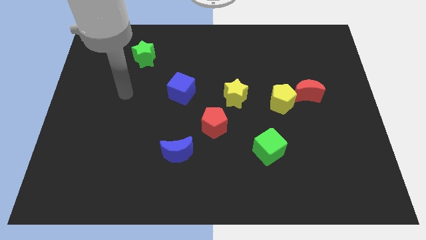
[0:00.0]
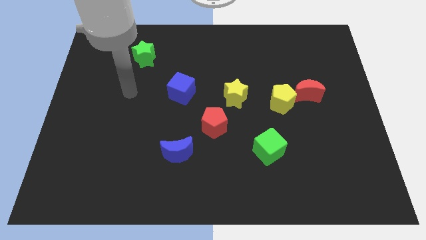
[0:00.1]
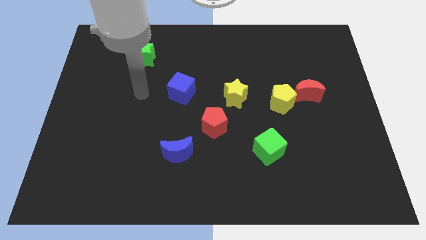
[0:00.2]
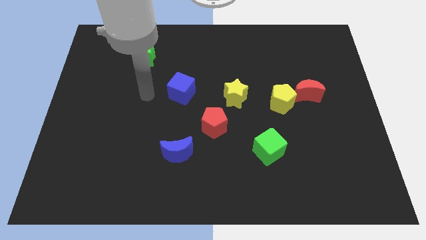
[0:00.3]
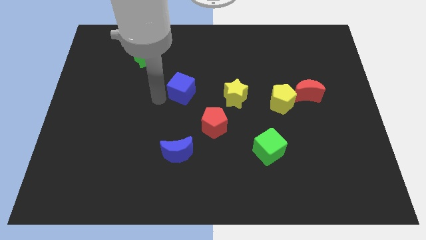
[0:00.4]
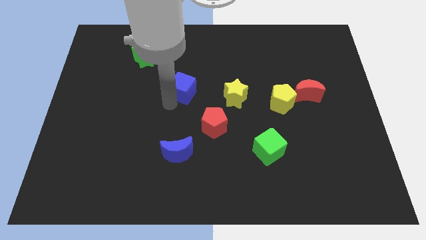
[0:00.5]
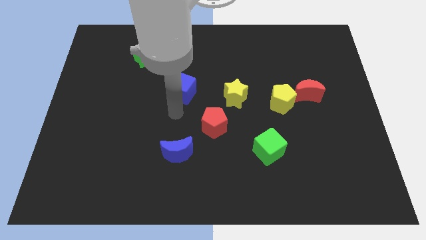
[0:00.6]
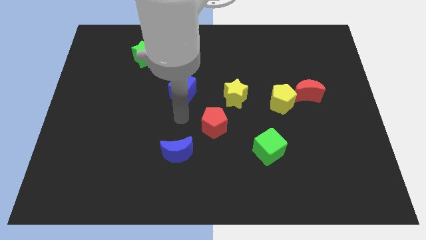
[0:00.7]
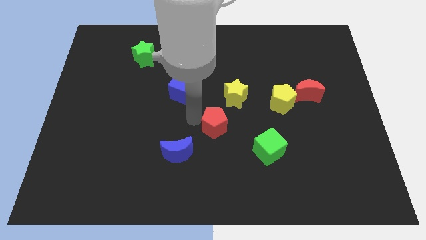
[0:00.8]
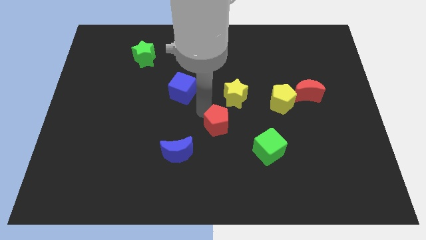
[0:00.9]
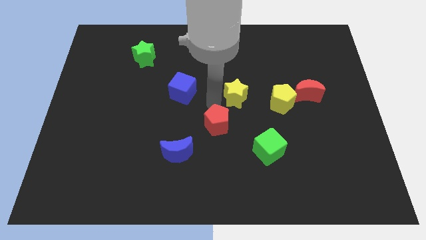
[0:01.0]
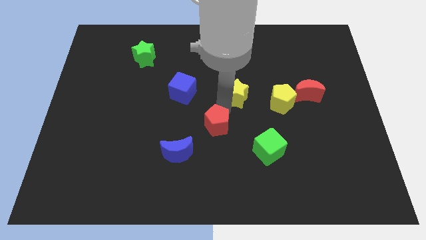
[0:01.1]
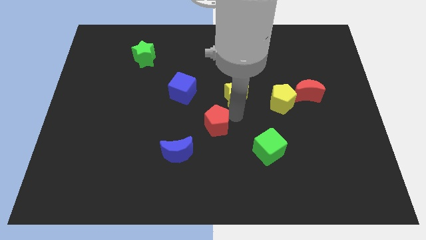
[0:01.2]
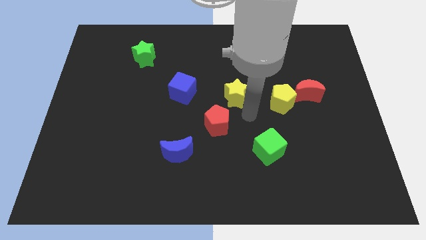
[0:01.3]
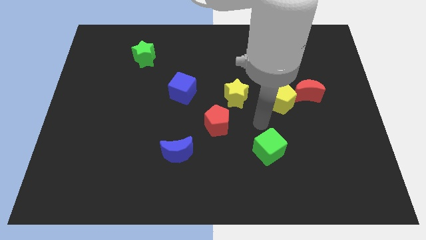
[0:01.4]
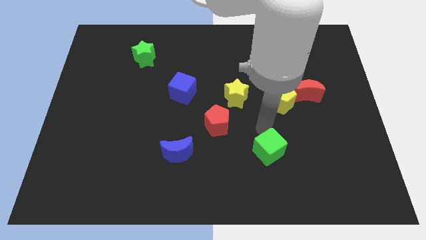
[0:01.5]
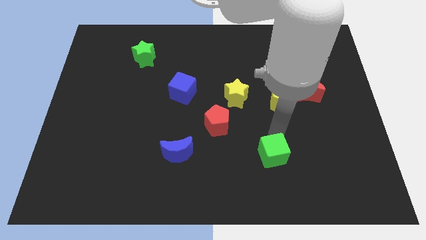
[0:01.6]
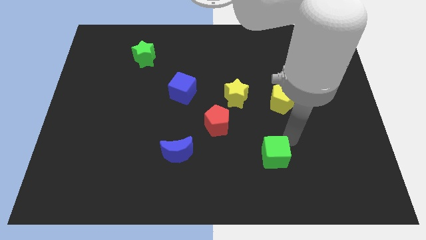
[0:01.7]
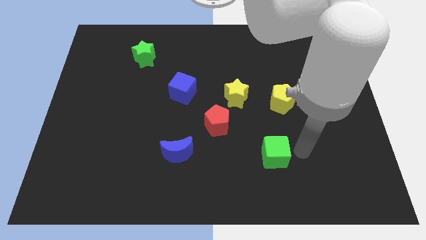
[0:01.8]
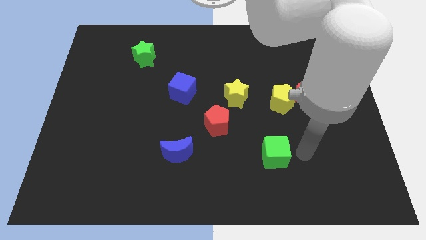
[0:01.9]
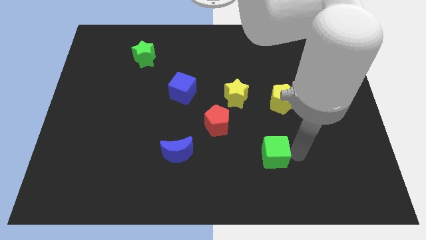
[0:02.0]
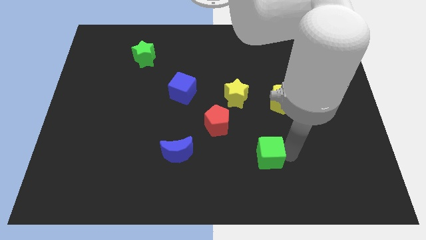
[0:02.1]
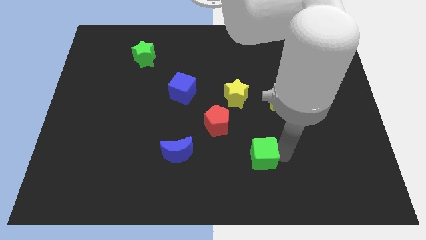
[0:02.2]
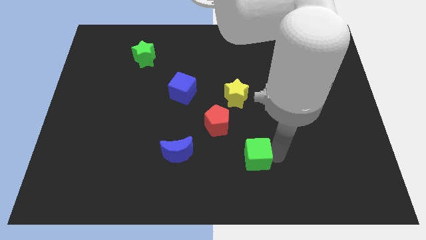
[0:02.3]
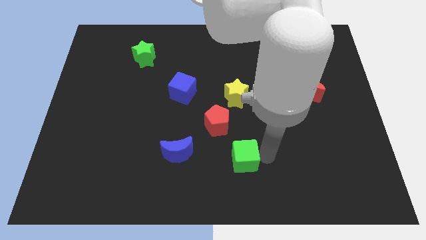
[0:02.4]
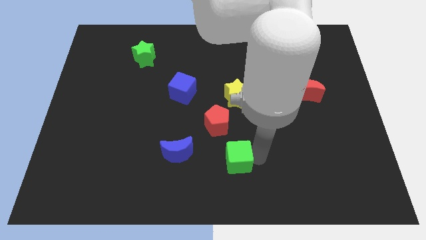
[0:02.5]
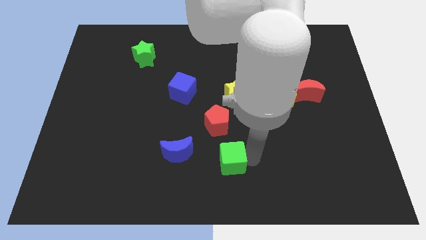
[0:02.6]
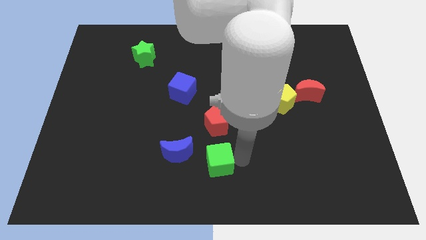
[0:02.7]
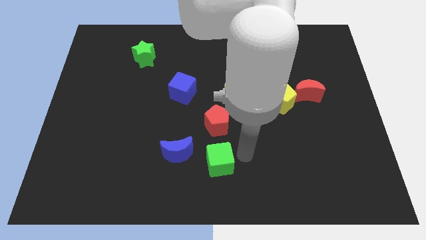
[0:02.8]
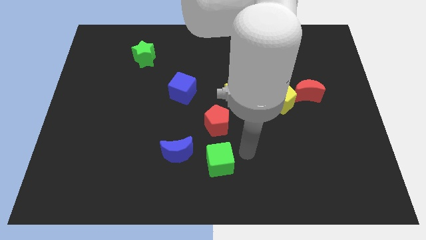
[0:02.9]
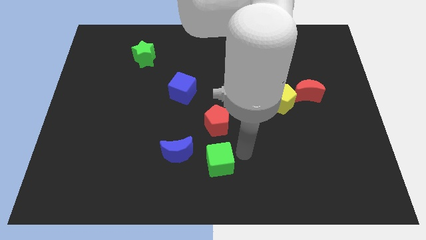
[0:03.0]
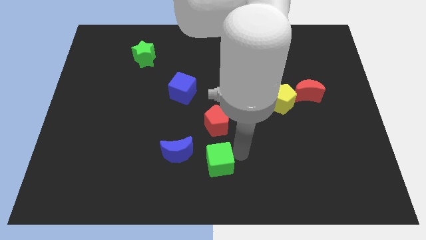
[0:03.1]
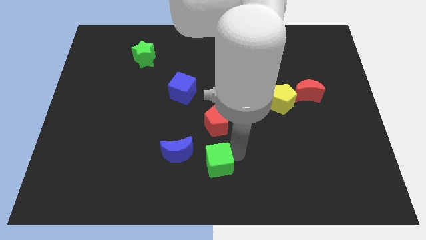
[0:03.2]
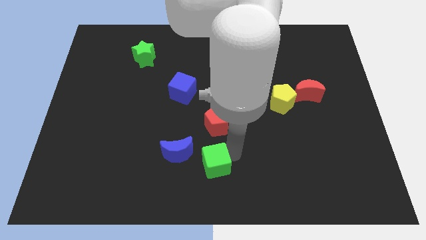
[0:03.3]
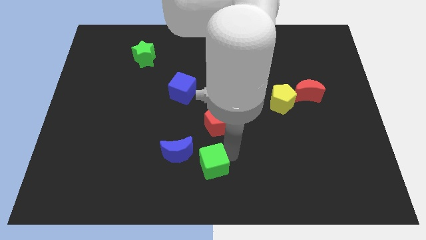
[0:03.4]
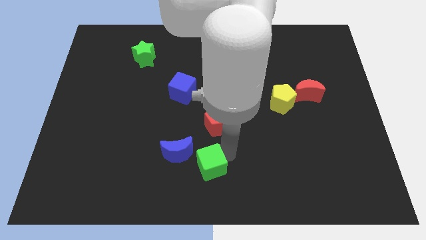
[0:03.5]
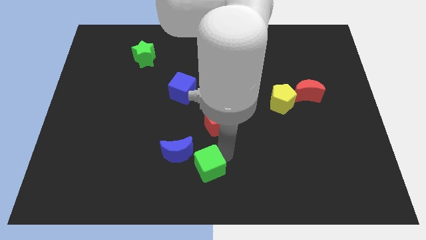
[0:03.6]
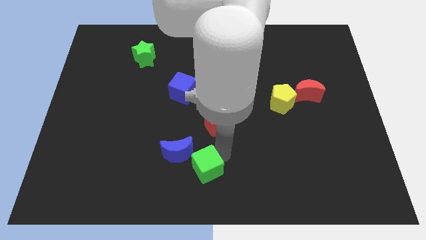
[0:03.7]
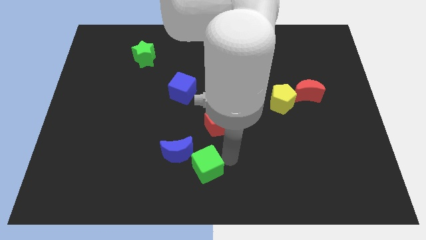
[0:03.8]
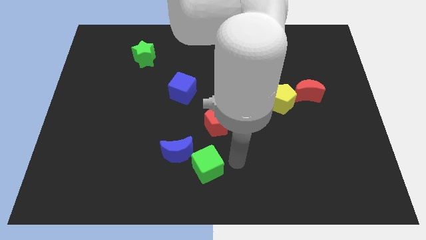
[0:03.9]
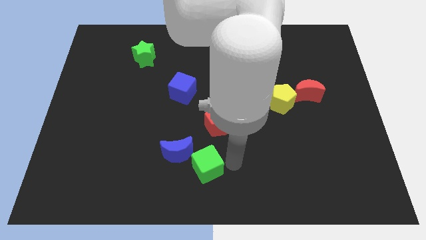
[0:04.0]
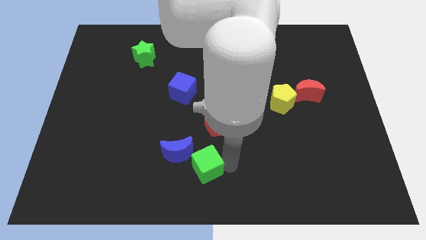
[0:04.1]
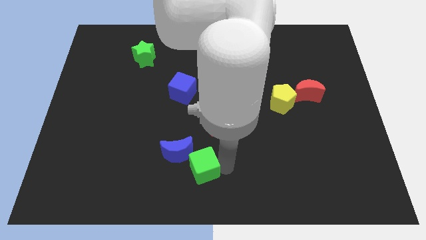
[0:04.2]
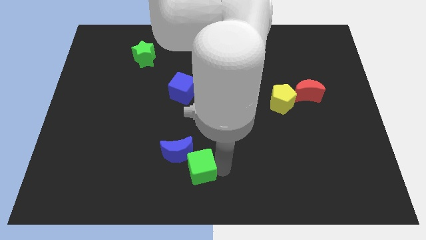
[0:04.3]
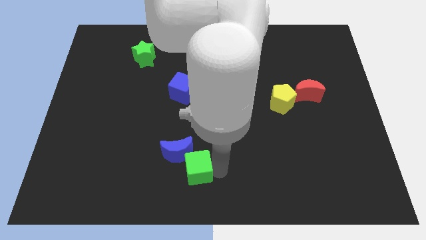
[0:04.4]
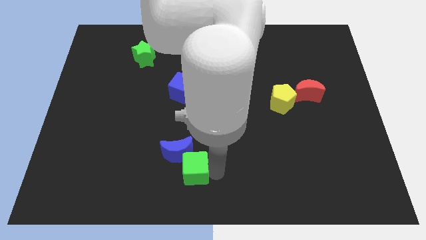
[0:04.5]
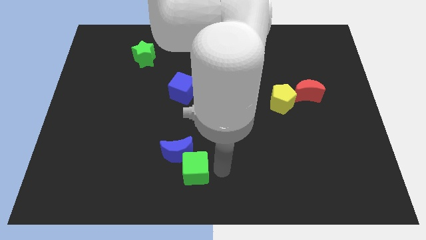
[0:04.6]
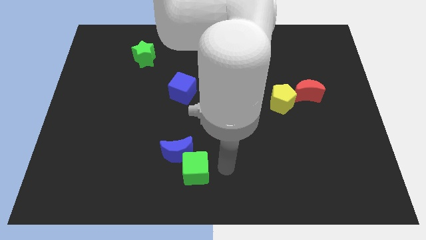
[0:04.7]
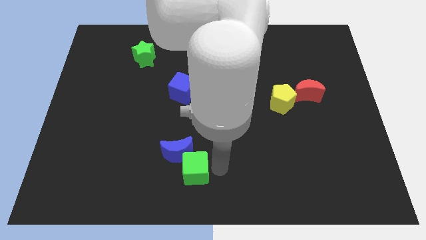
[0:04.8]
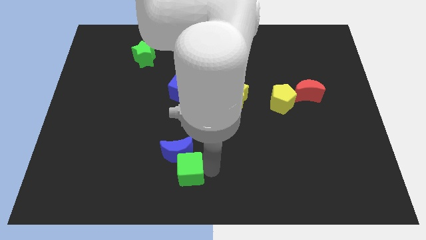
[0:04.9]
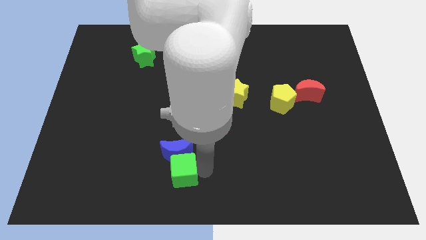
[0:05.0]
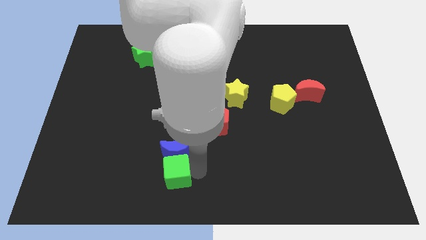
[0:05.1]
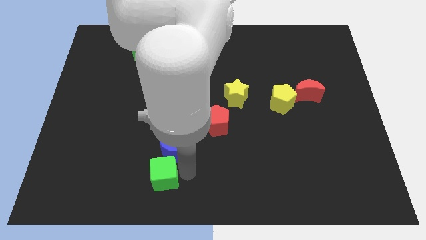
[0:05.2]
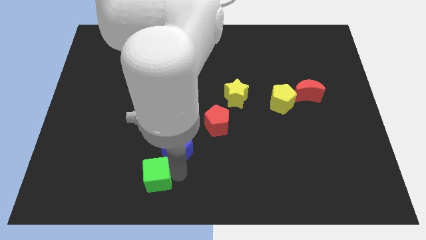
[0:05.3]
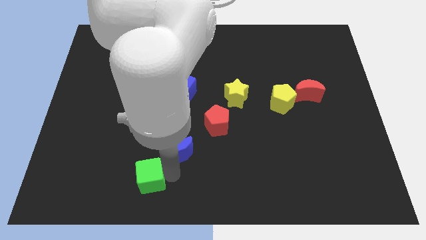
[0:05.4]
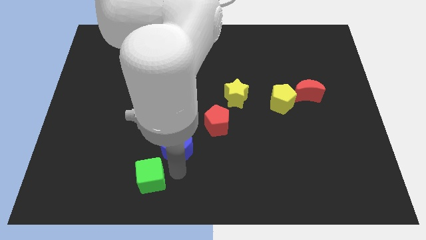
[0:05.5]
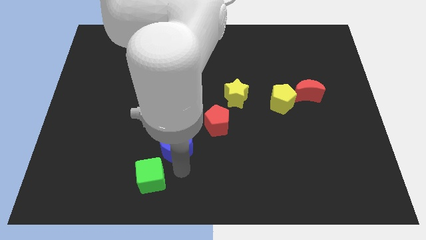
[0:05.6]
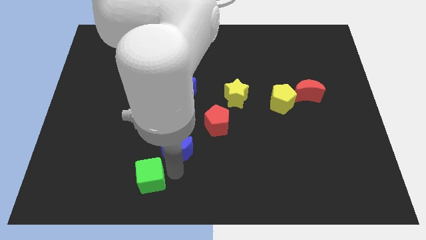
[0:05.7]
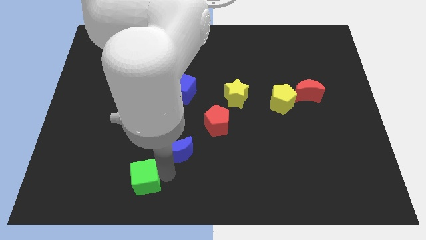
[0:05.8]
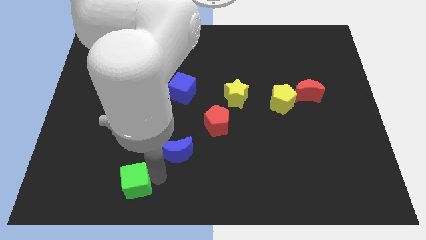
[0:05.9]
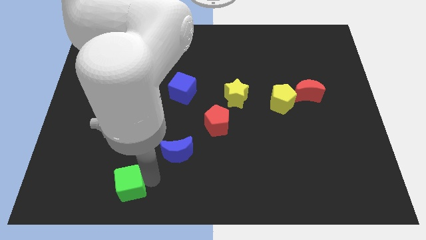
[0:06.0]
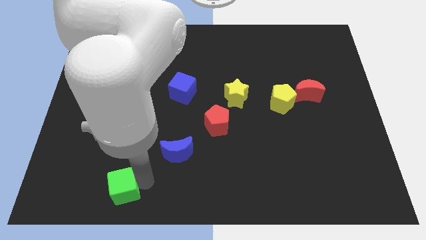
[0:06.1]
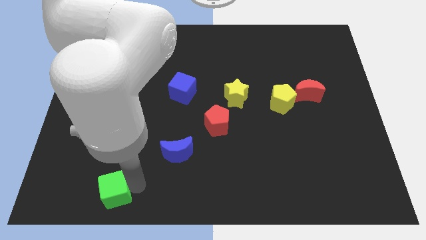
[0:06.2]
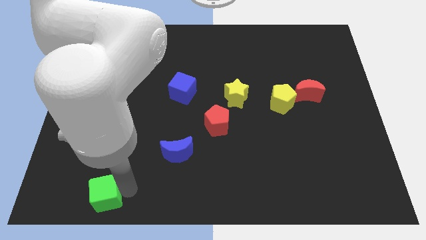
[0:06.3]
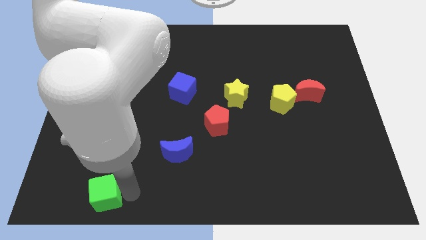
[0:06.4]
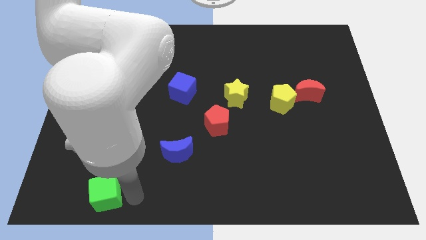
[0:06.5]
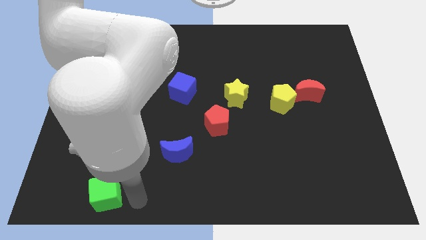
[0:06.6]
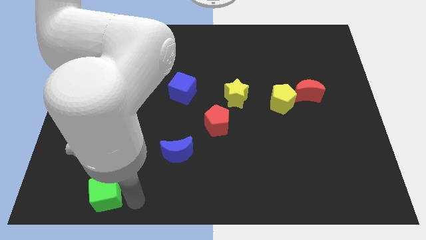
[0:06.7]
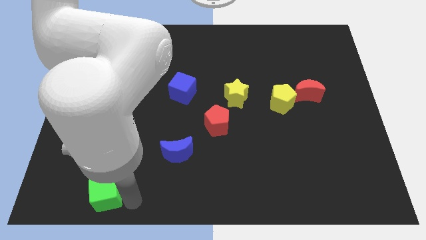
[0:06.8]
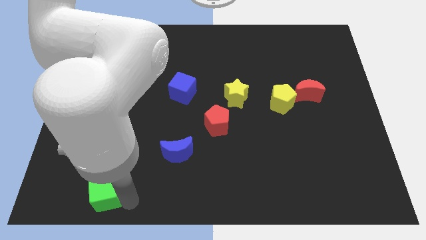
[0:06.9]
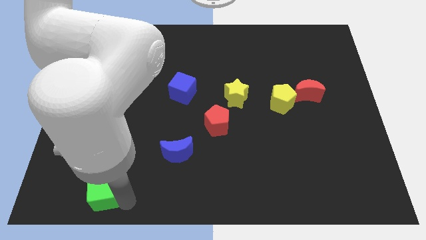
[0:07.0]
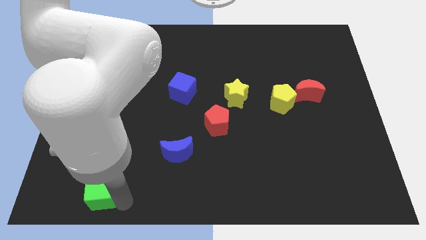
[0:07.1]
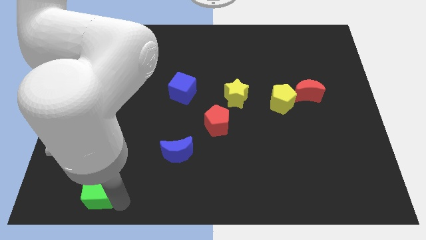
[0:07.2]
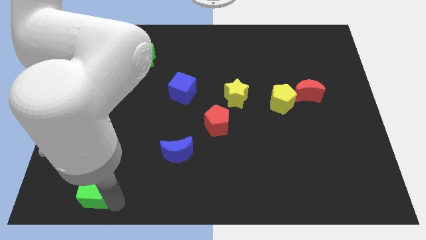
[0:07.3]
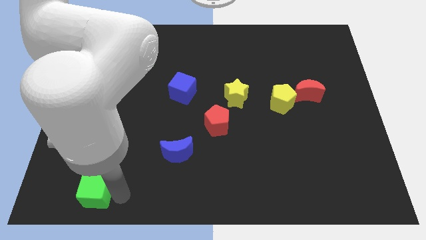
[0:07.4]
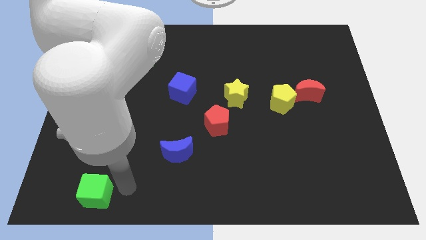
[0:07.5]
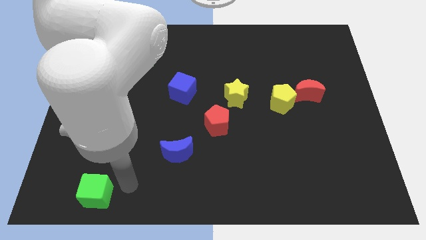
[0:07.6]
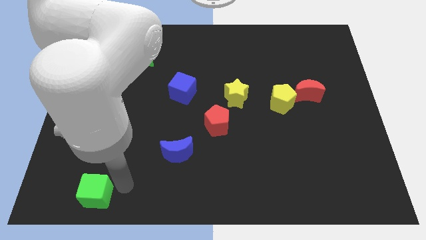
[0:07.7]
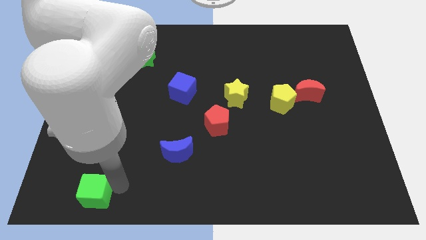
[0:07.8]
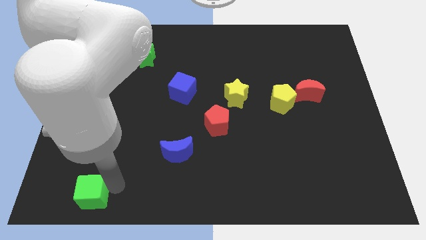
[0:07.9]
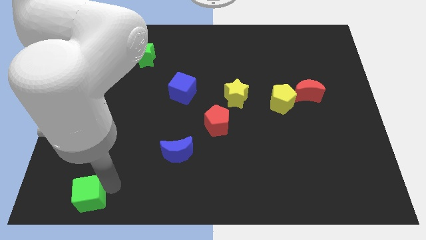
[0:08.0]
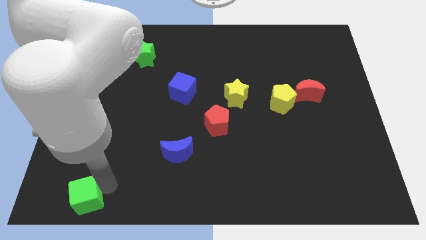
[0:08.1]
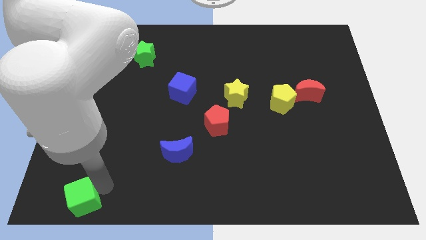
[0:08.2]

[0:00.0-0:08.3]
move the green cube to the bottom left corner
